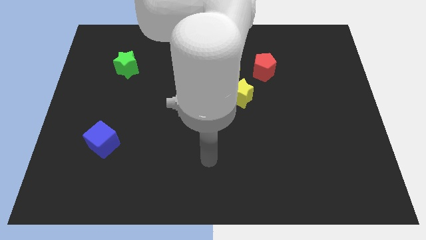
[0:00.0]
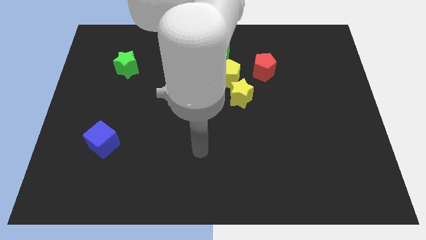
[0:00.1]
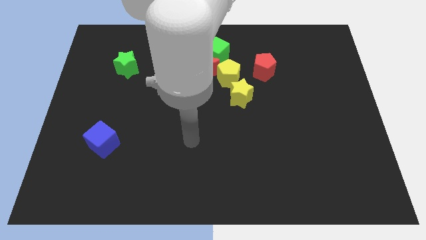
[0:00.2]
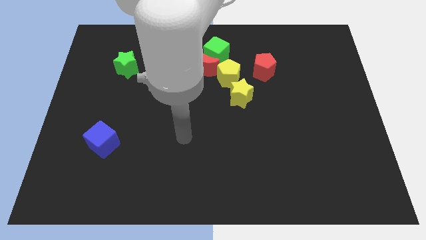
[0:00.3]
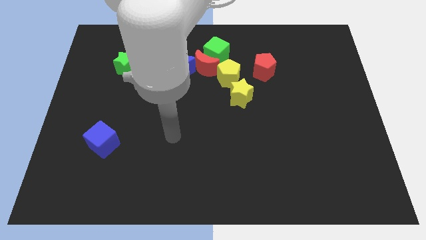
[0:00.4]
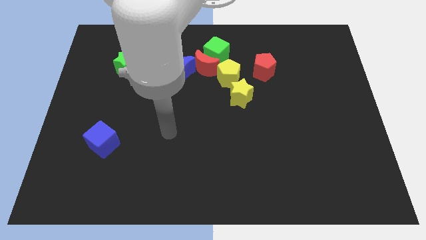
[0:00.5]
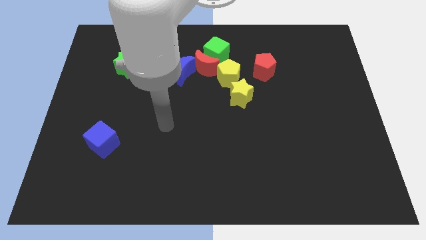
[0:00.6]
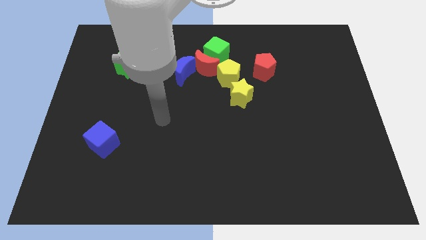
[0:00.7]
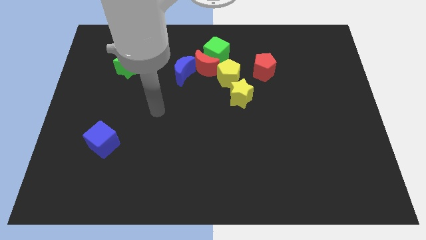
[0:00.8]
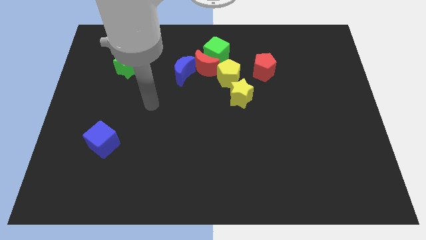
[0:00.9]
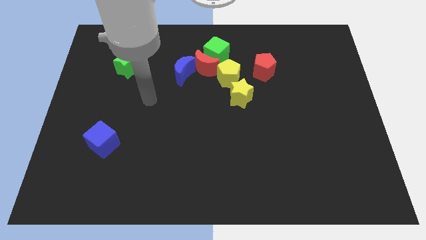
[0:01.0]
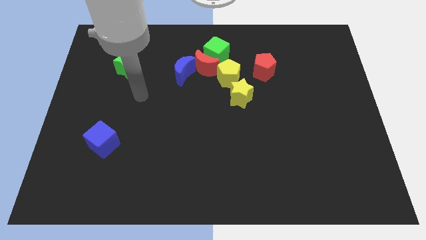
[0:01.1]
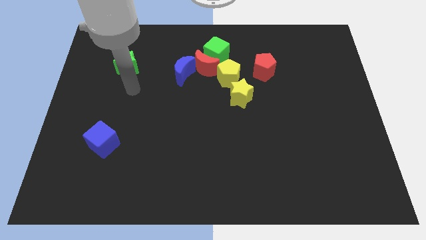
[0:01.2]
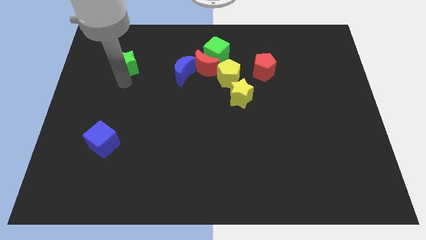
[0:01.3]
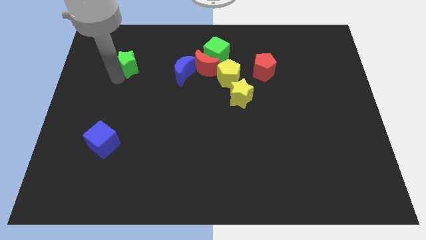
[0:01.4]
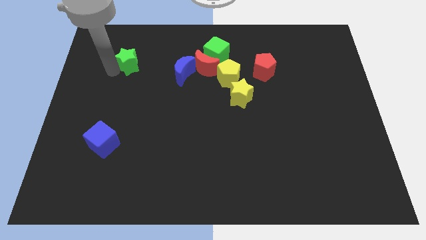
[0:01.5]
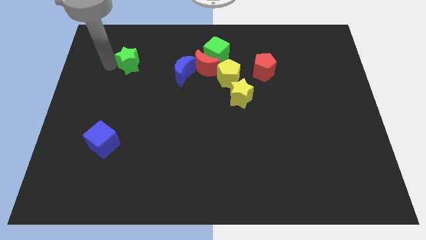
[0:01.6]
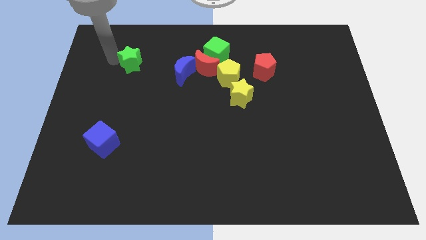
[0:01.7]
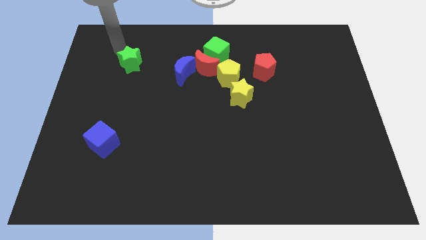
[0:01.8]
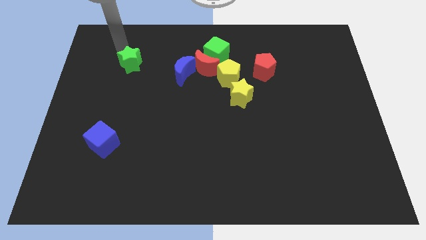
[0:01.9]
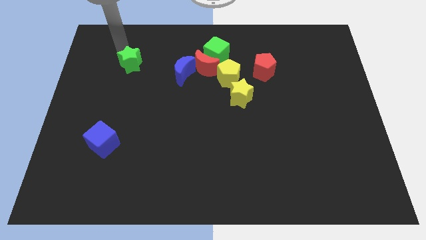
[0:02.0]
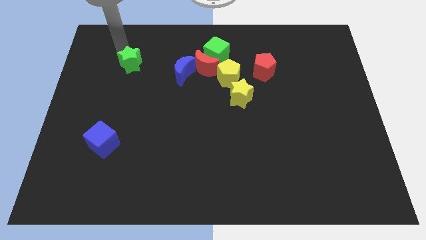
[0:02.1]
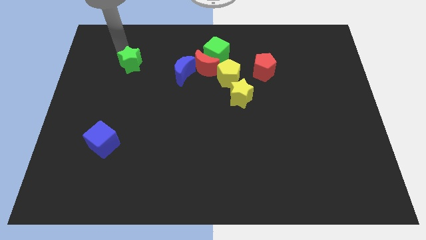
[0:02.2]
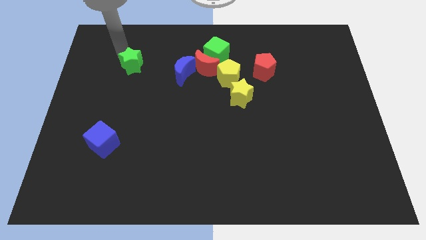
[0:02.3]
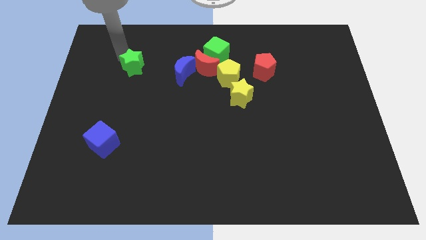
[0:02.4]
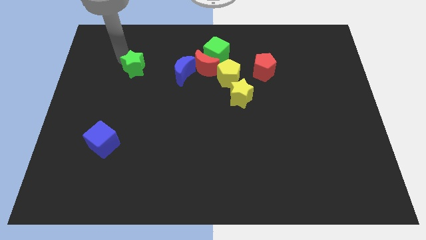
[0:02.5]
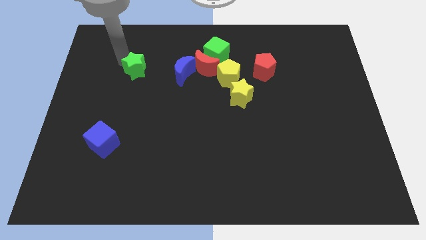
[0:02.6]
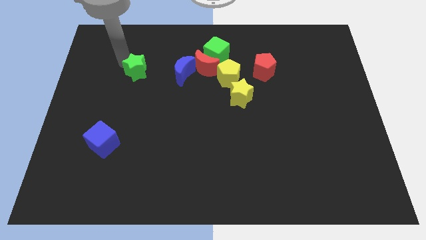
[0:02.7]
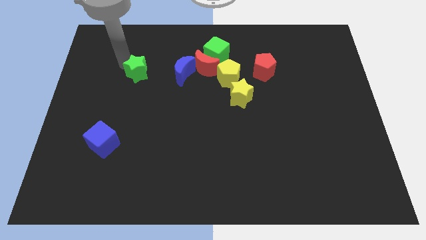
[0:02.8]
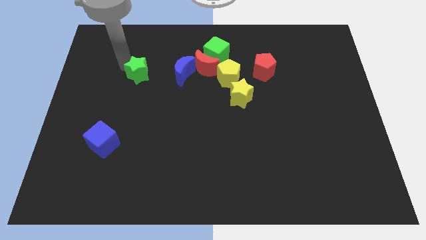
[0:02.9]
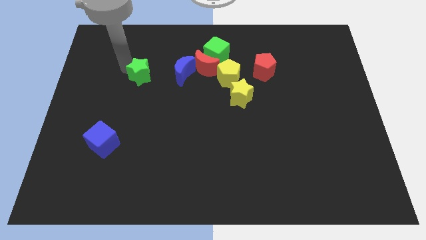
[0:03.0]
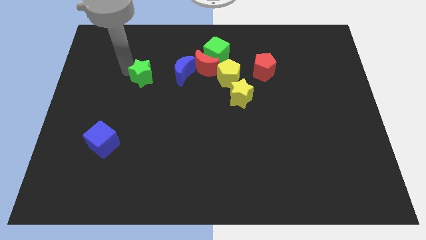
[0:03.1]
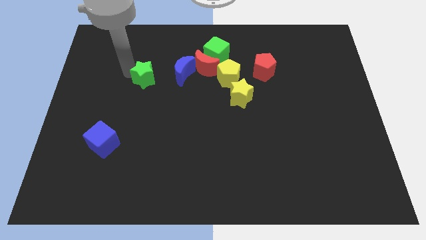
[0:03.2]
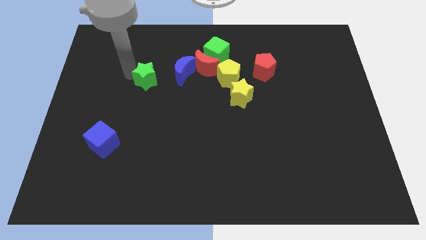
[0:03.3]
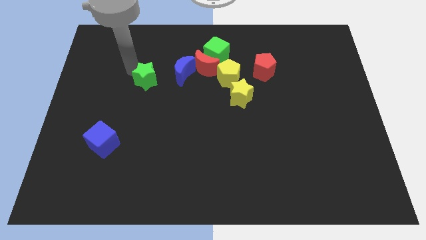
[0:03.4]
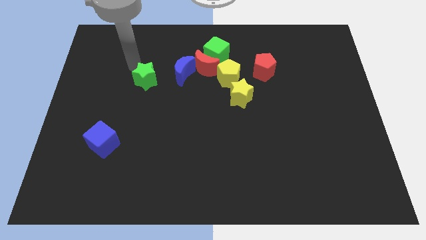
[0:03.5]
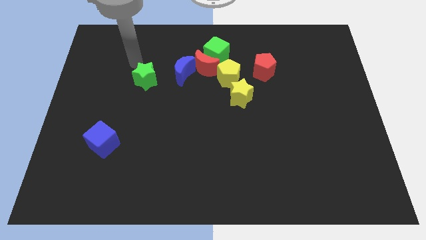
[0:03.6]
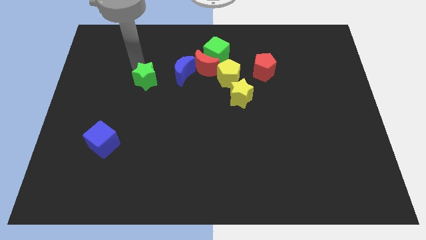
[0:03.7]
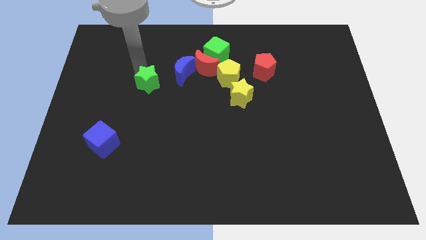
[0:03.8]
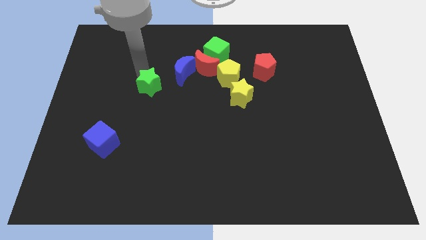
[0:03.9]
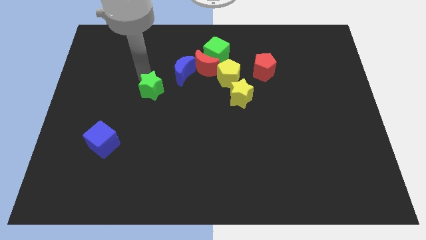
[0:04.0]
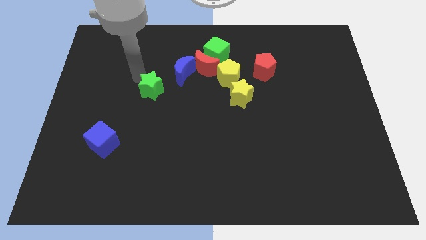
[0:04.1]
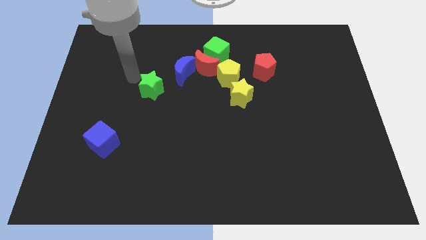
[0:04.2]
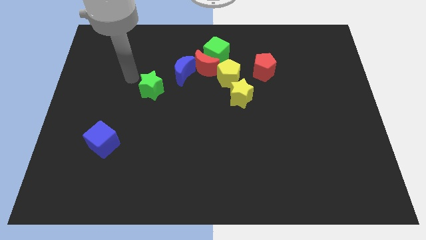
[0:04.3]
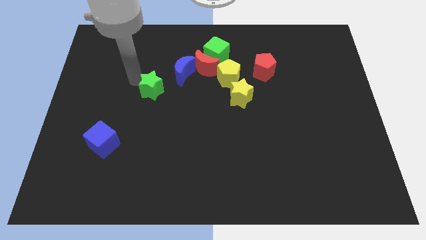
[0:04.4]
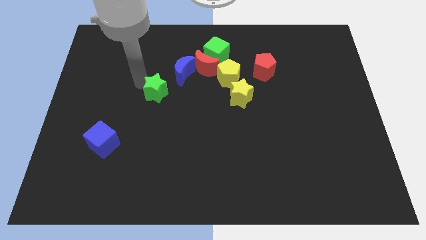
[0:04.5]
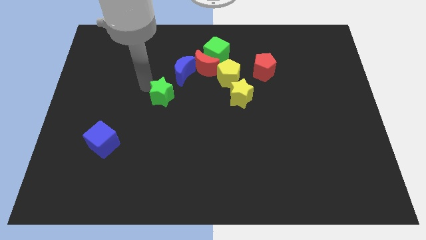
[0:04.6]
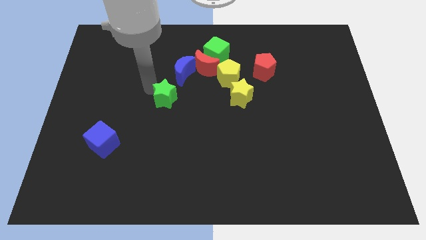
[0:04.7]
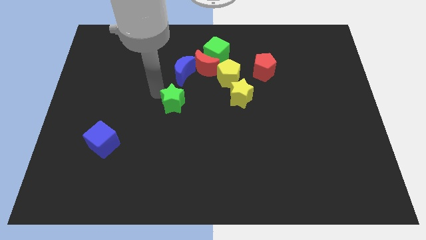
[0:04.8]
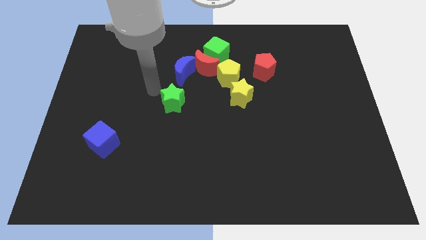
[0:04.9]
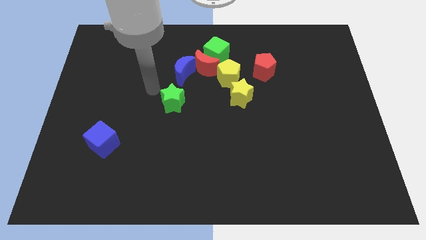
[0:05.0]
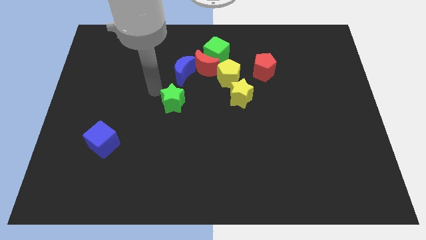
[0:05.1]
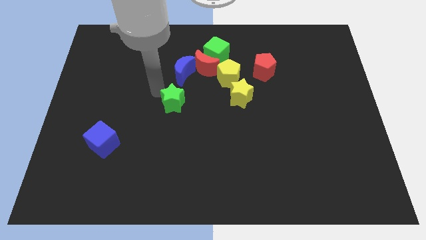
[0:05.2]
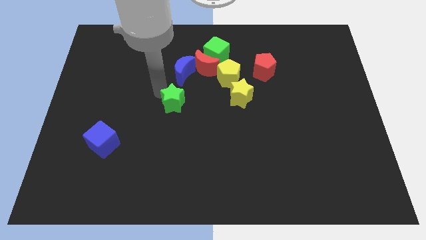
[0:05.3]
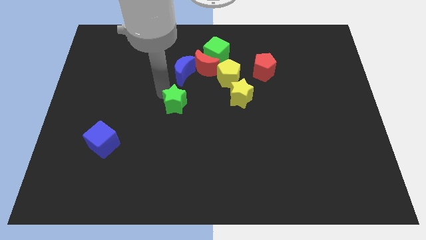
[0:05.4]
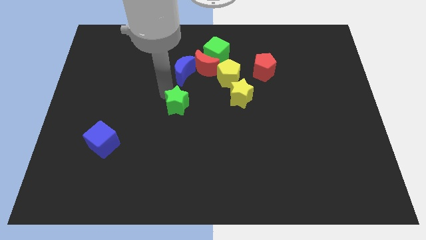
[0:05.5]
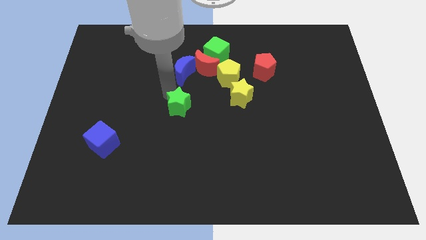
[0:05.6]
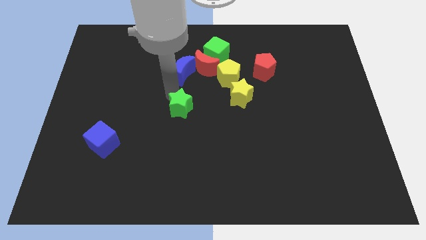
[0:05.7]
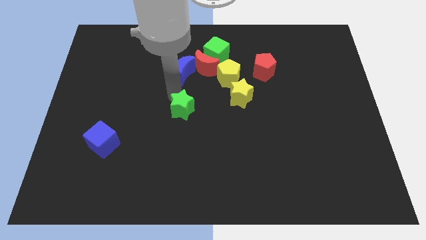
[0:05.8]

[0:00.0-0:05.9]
move the green star down and then right

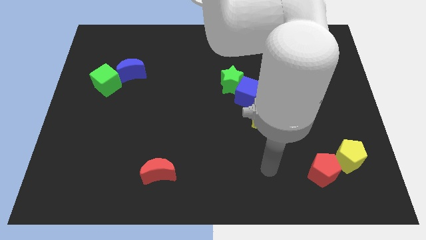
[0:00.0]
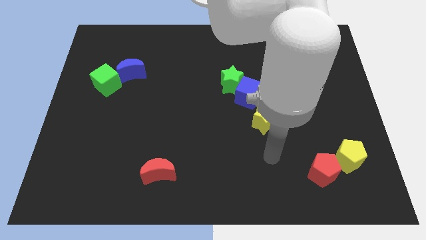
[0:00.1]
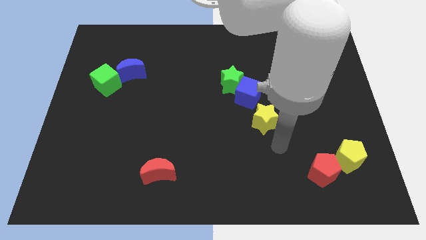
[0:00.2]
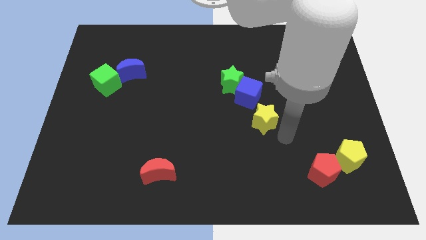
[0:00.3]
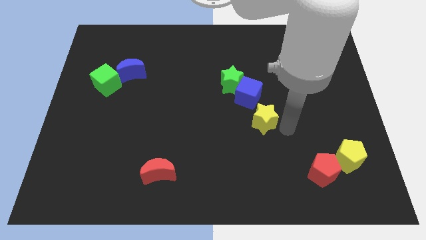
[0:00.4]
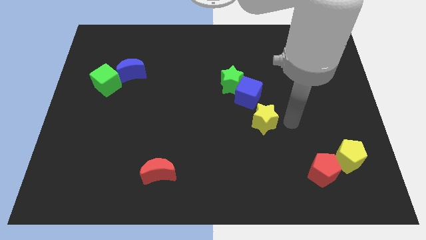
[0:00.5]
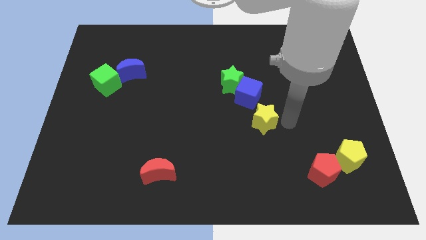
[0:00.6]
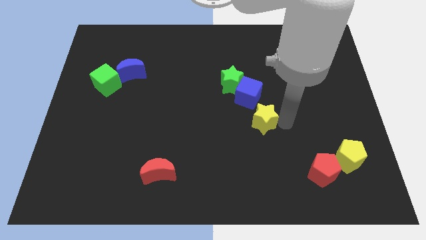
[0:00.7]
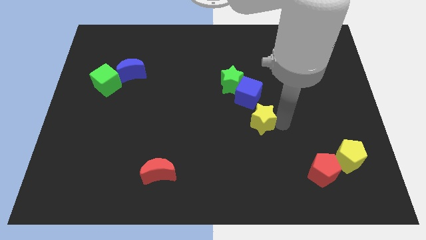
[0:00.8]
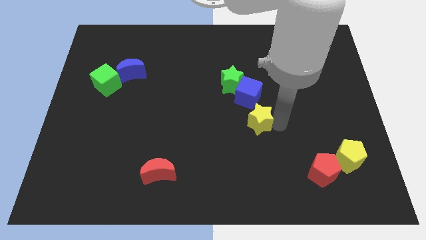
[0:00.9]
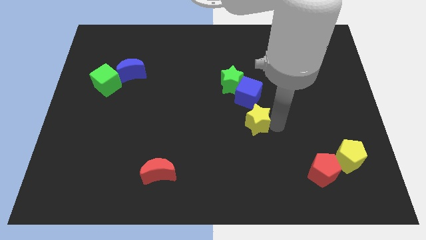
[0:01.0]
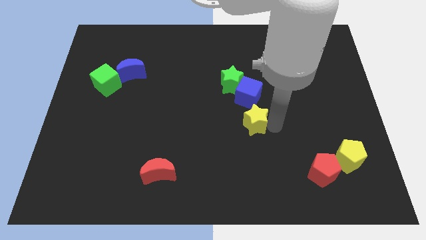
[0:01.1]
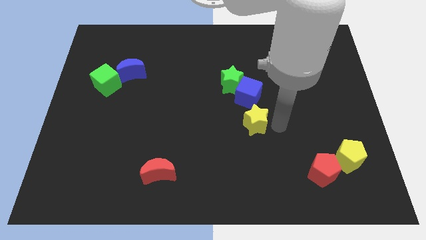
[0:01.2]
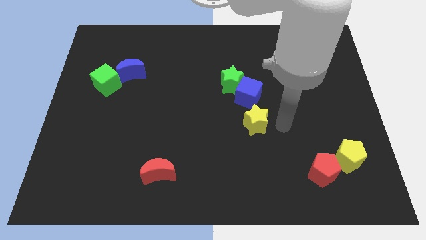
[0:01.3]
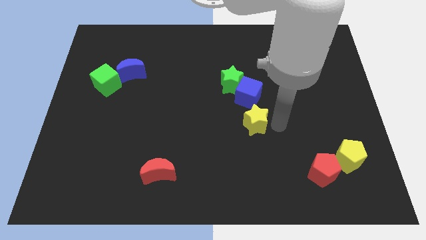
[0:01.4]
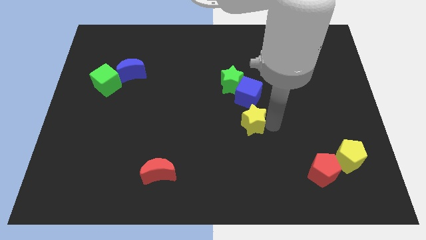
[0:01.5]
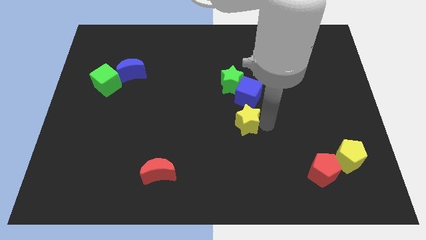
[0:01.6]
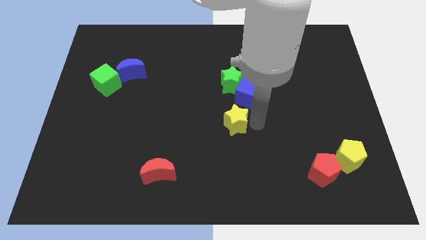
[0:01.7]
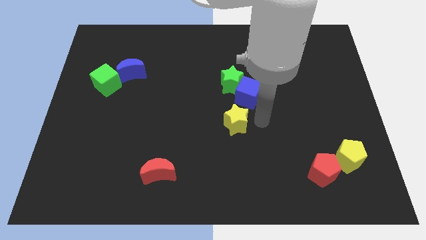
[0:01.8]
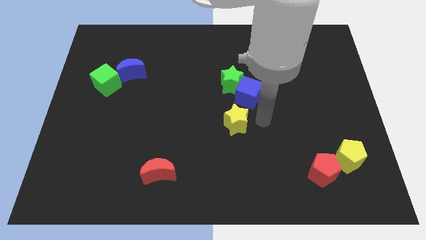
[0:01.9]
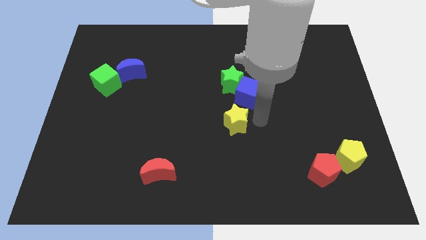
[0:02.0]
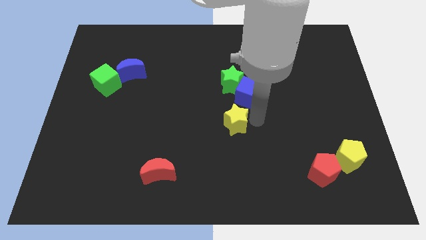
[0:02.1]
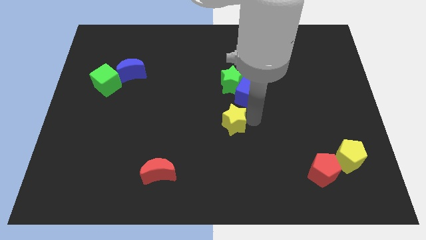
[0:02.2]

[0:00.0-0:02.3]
slide the yellow star a little bit to the left

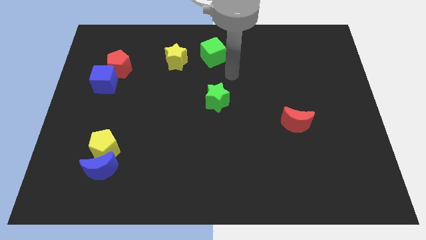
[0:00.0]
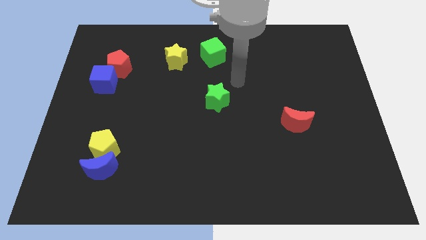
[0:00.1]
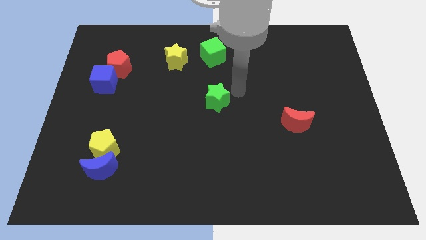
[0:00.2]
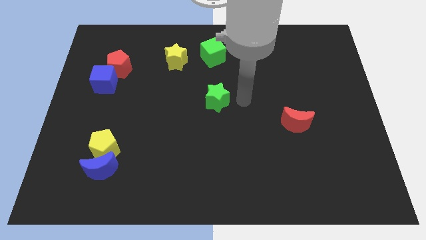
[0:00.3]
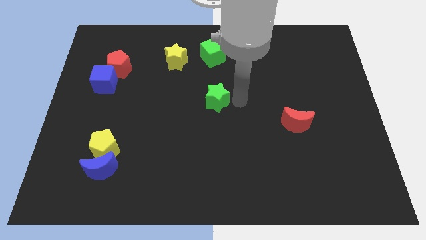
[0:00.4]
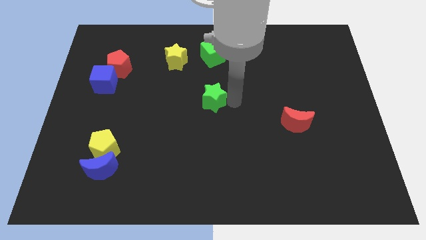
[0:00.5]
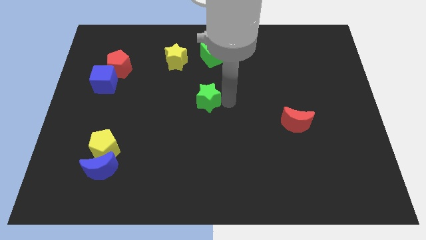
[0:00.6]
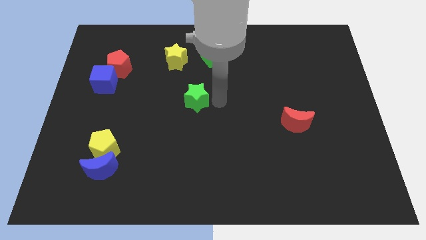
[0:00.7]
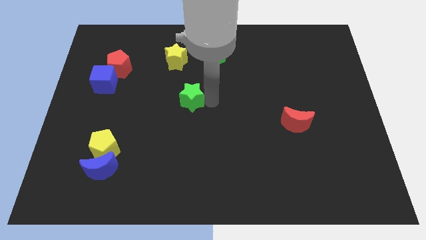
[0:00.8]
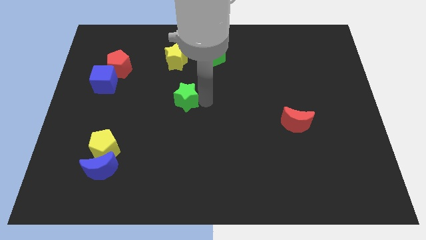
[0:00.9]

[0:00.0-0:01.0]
slightly move the green star left
